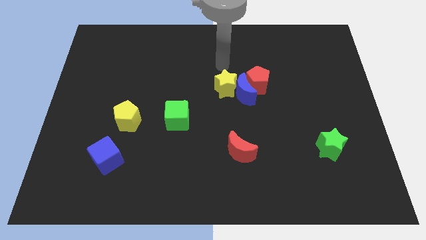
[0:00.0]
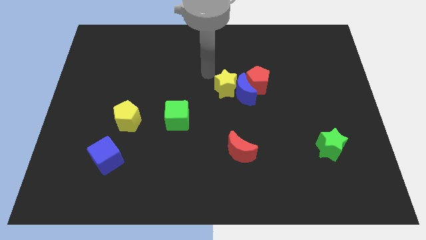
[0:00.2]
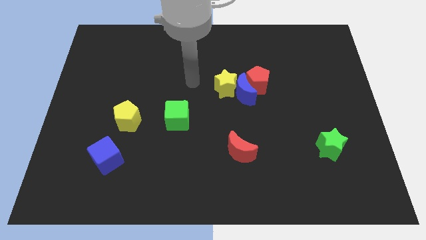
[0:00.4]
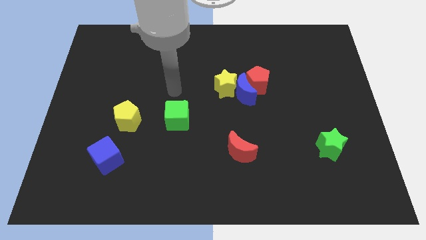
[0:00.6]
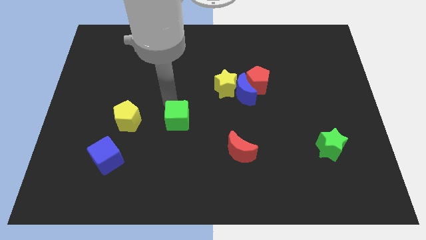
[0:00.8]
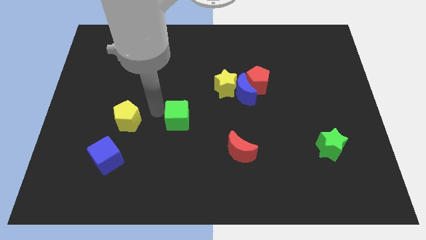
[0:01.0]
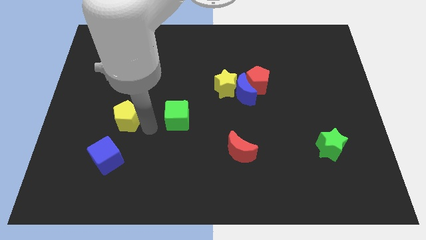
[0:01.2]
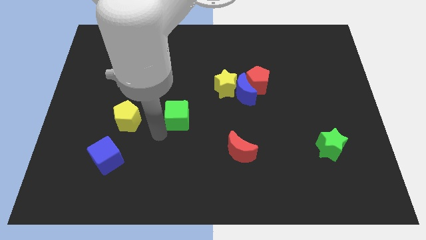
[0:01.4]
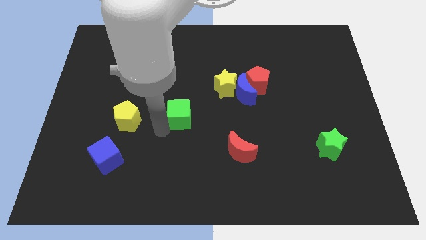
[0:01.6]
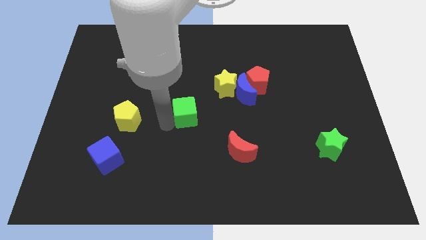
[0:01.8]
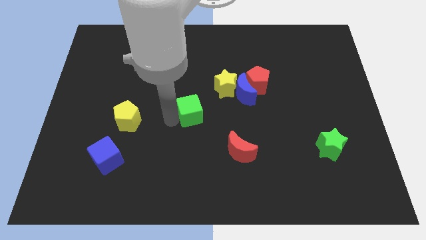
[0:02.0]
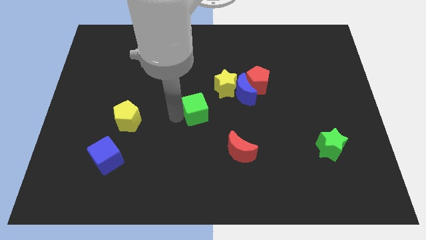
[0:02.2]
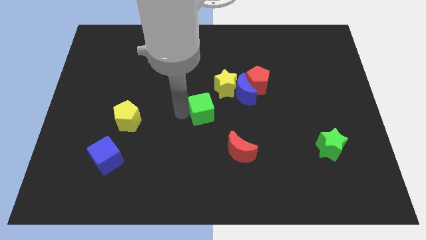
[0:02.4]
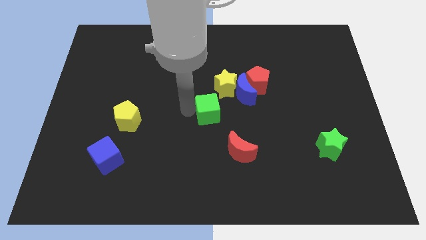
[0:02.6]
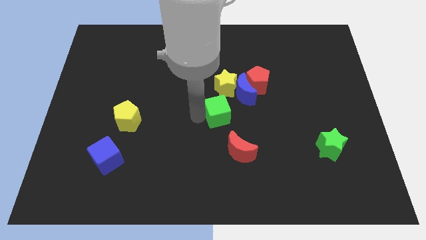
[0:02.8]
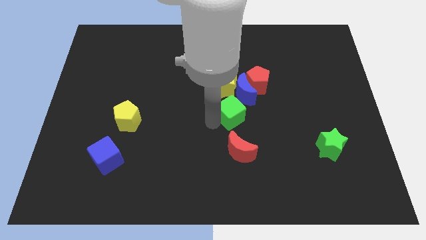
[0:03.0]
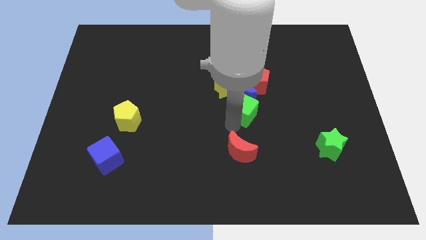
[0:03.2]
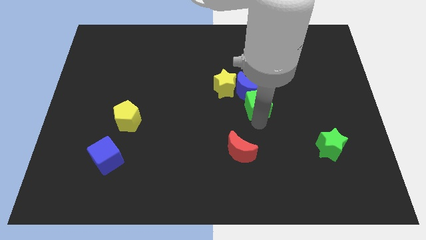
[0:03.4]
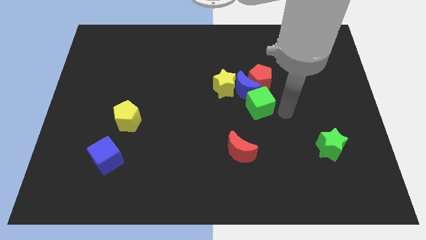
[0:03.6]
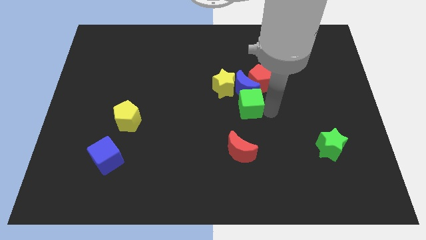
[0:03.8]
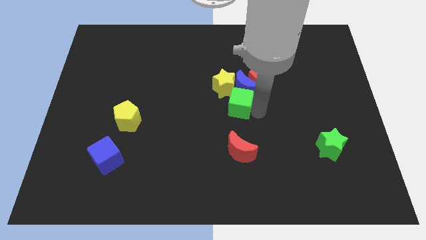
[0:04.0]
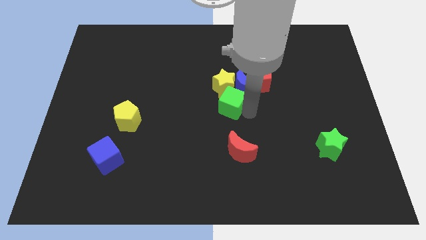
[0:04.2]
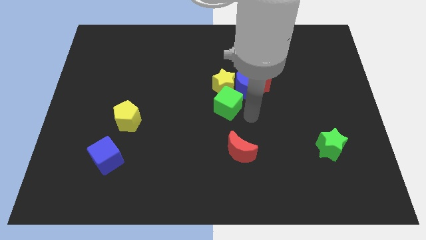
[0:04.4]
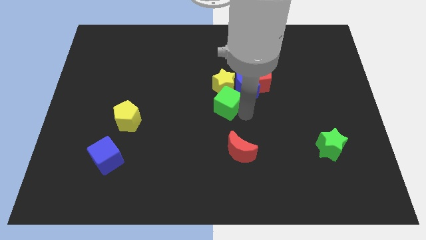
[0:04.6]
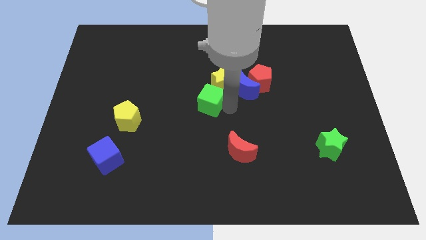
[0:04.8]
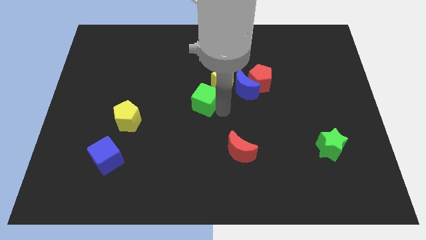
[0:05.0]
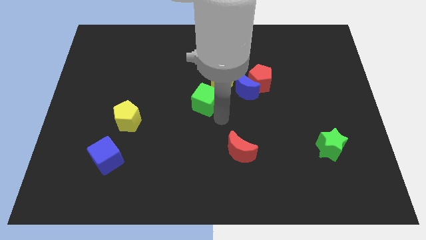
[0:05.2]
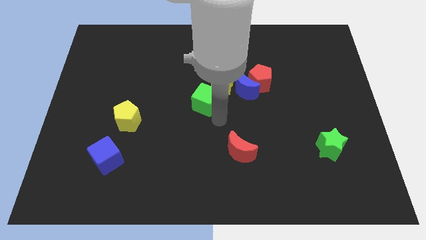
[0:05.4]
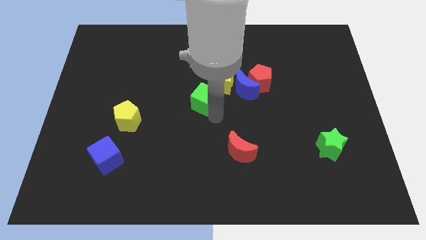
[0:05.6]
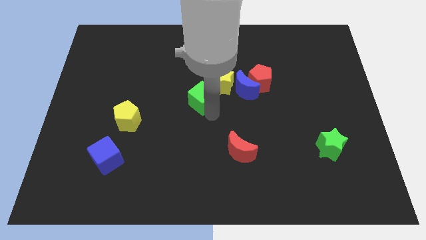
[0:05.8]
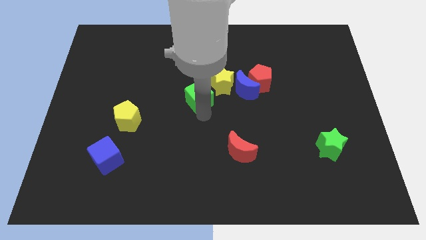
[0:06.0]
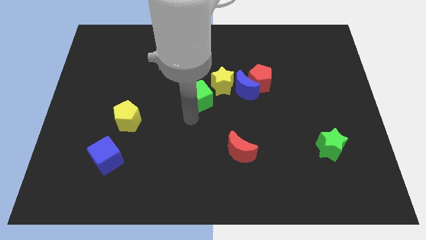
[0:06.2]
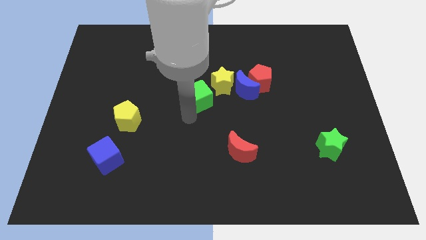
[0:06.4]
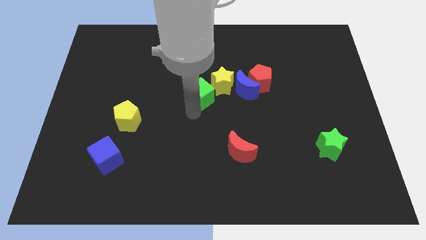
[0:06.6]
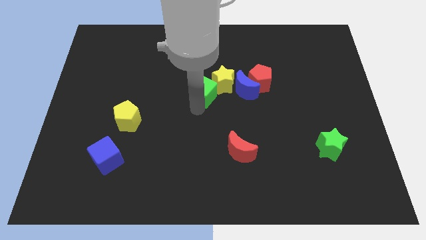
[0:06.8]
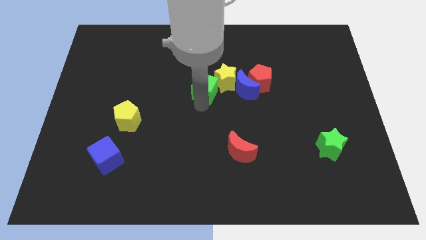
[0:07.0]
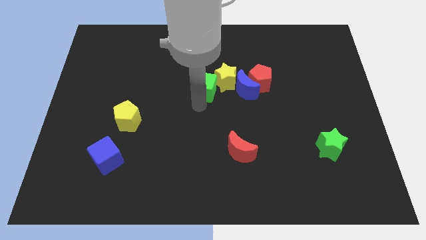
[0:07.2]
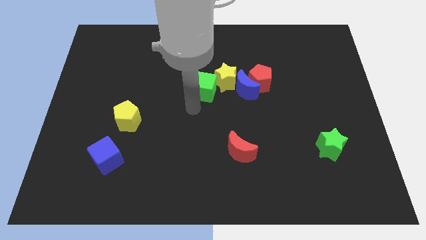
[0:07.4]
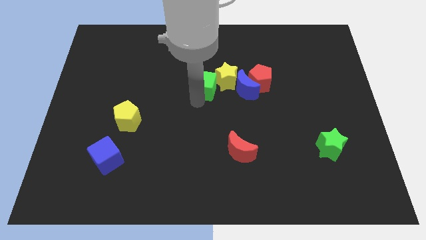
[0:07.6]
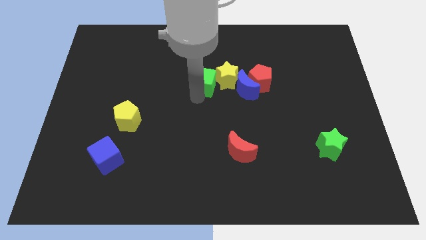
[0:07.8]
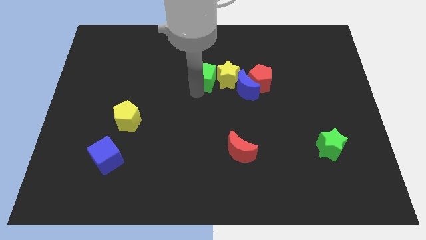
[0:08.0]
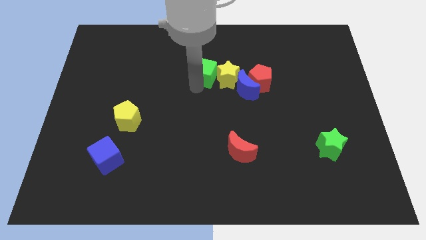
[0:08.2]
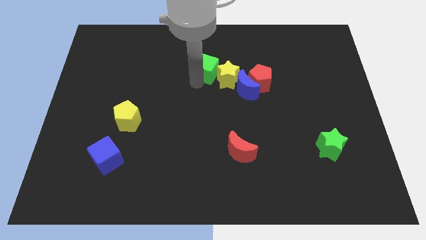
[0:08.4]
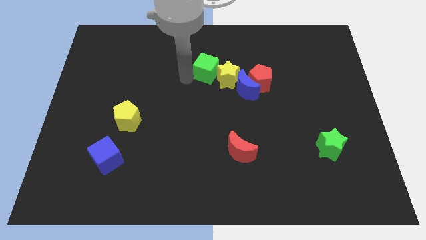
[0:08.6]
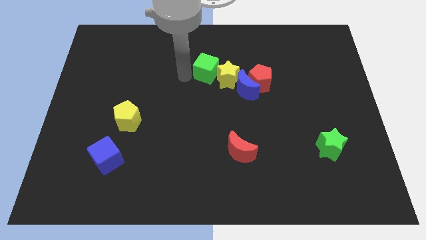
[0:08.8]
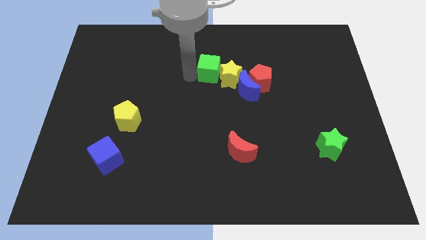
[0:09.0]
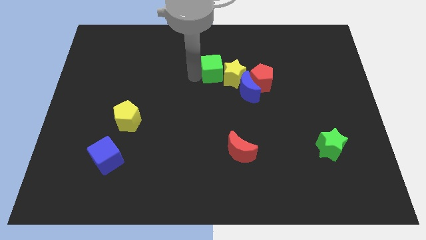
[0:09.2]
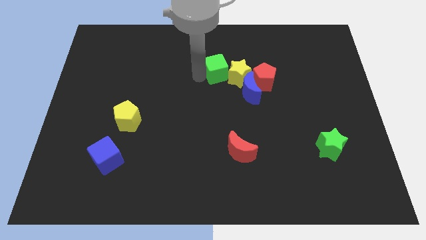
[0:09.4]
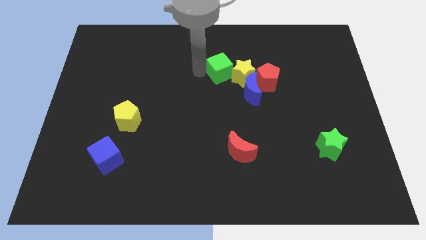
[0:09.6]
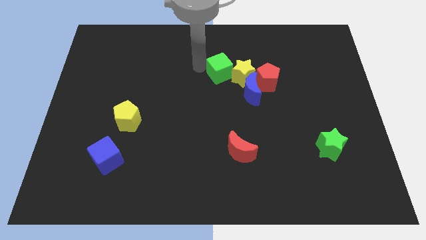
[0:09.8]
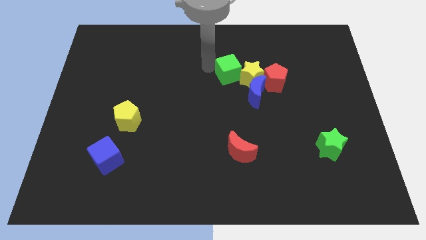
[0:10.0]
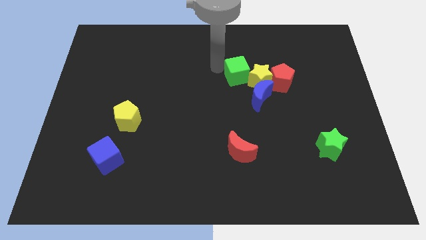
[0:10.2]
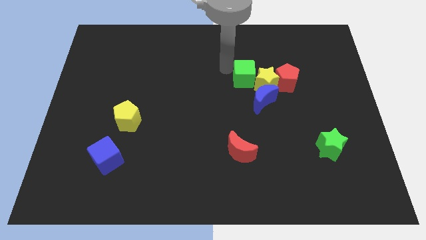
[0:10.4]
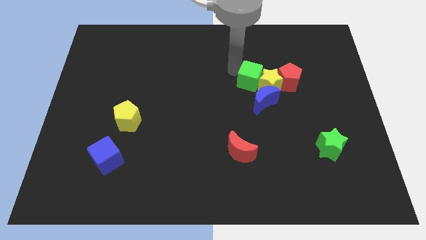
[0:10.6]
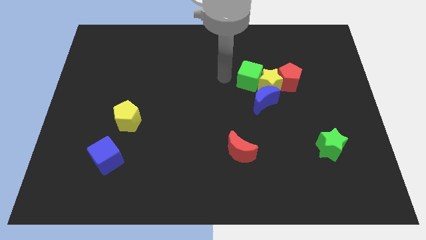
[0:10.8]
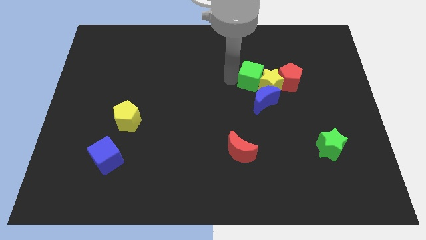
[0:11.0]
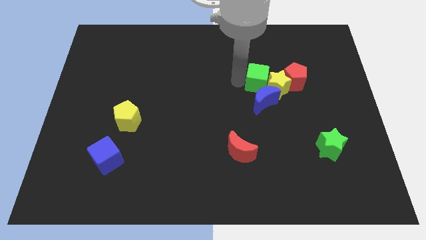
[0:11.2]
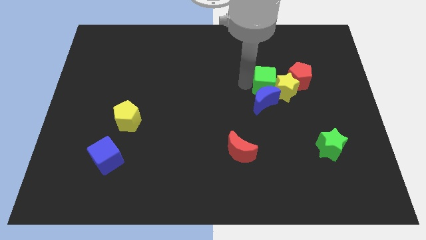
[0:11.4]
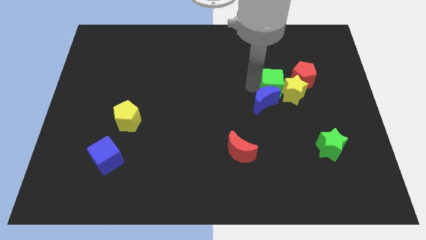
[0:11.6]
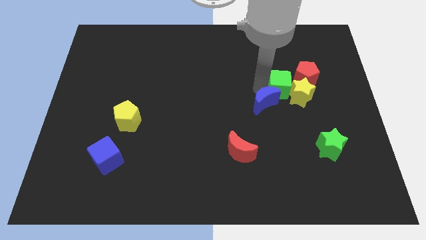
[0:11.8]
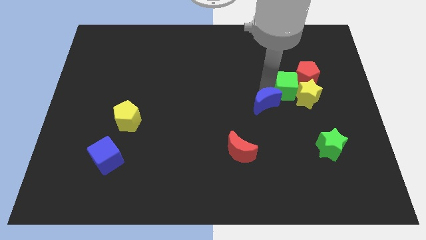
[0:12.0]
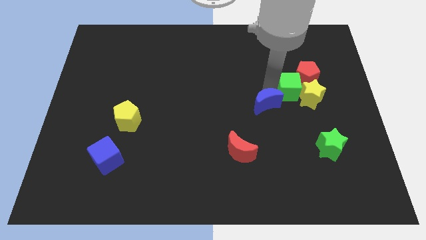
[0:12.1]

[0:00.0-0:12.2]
put the green cube close to the red pentagon

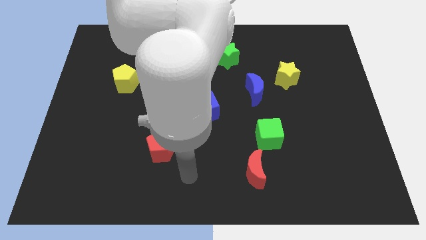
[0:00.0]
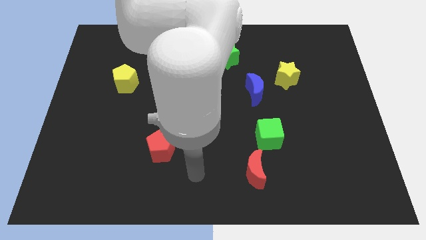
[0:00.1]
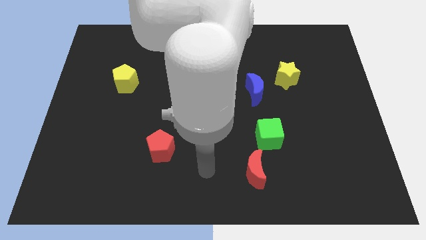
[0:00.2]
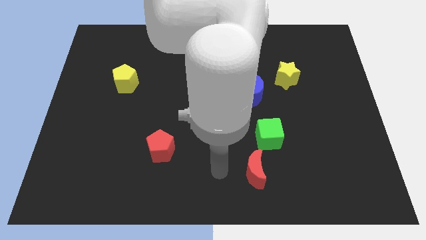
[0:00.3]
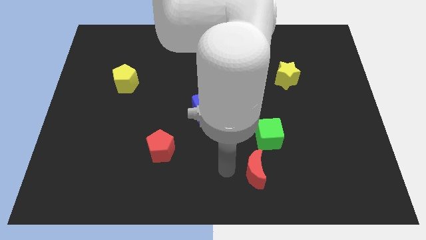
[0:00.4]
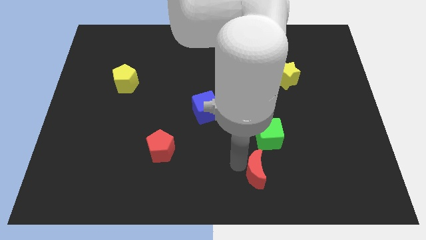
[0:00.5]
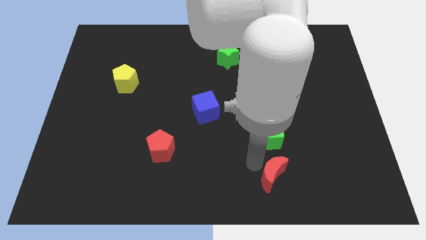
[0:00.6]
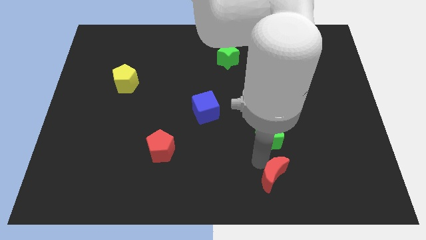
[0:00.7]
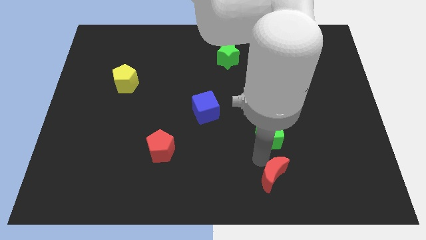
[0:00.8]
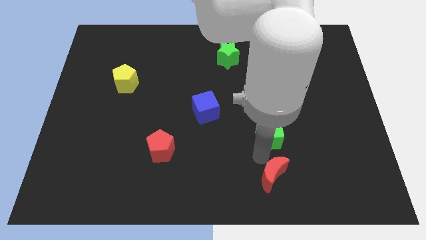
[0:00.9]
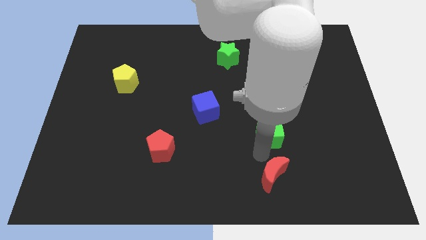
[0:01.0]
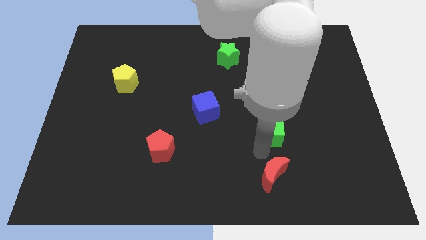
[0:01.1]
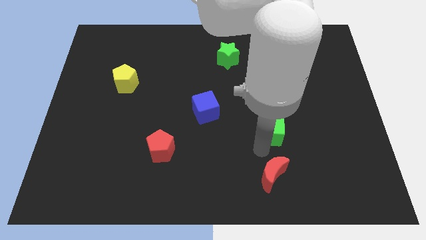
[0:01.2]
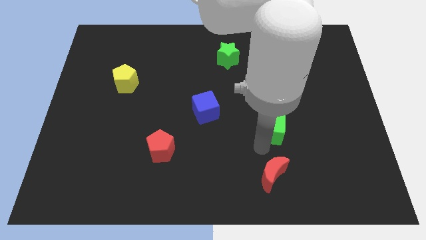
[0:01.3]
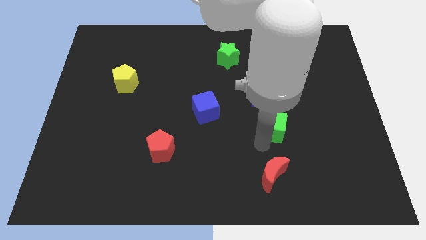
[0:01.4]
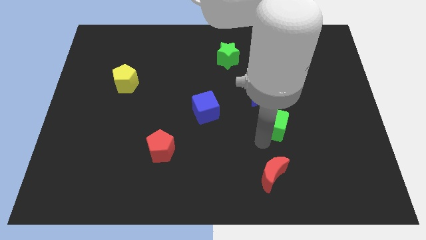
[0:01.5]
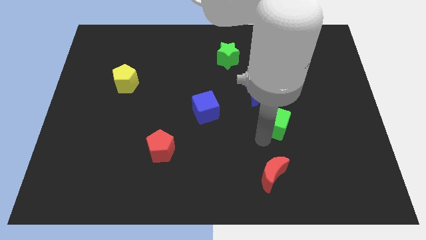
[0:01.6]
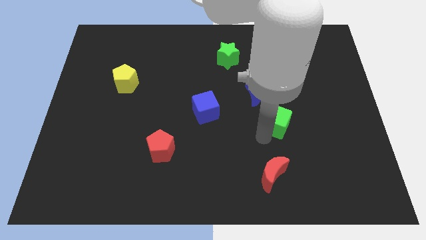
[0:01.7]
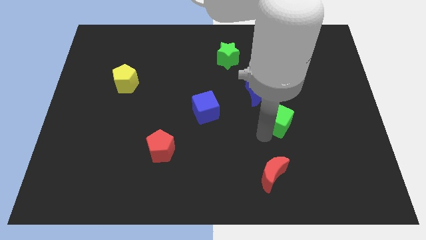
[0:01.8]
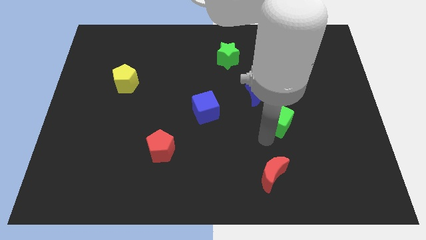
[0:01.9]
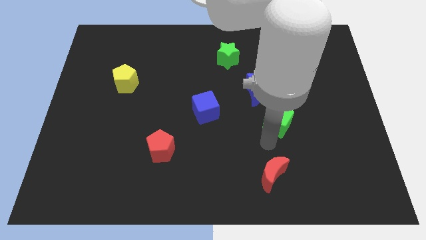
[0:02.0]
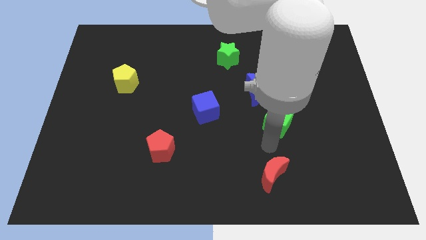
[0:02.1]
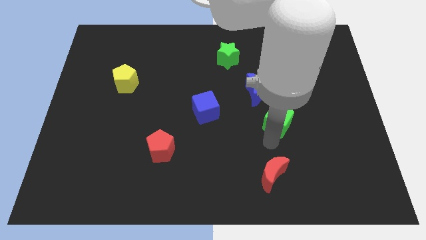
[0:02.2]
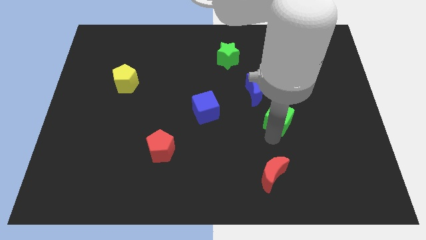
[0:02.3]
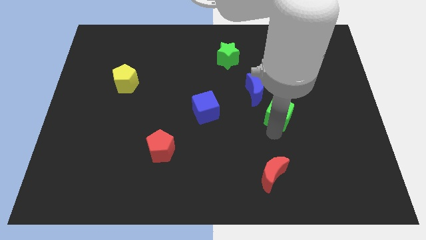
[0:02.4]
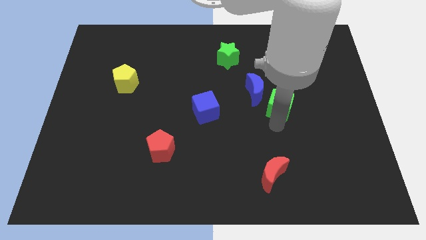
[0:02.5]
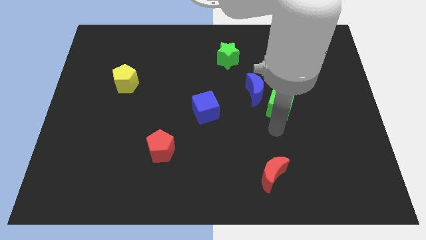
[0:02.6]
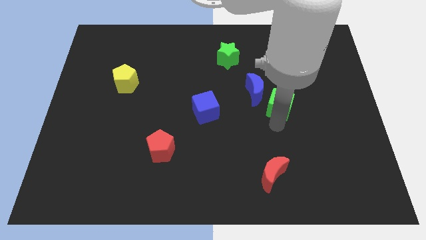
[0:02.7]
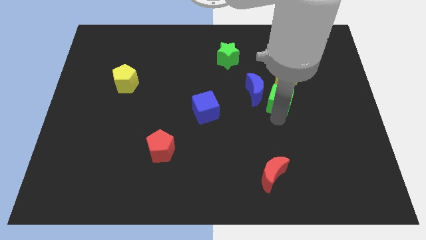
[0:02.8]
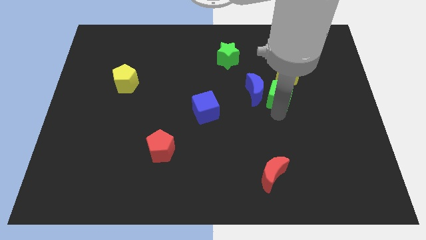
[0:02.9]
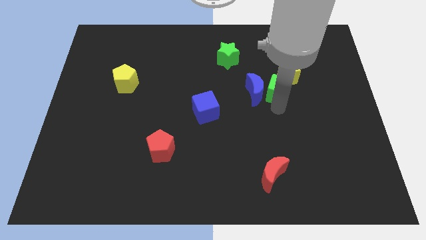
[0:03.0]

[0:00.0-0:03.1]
move the green cube close to the yellow star
